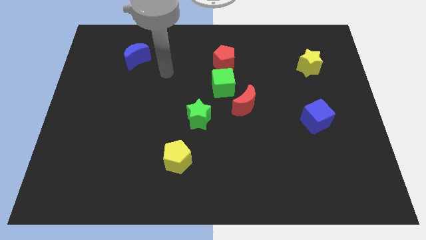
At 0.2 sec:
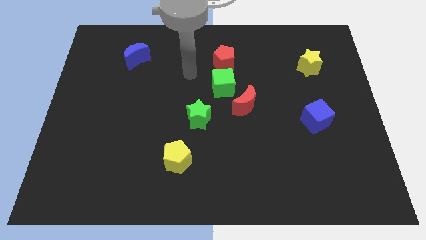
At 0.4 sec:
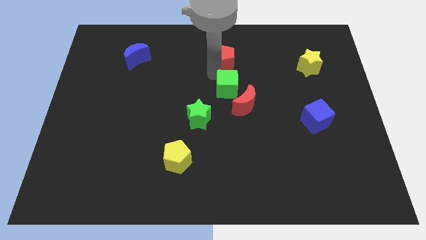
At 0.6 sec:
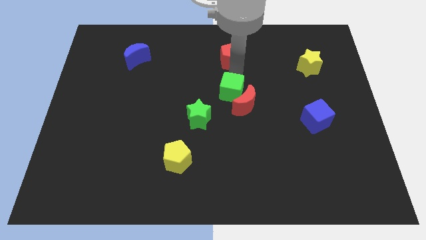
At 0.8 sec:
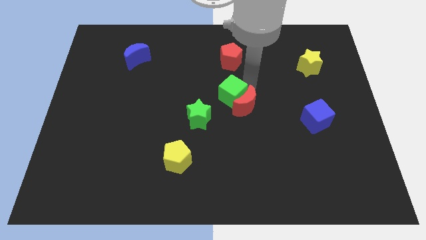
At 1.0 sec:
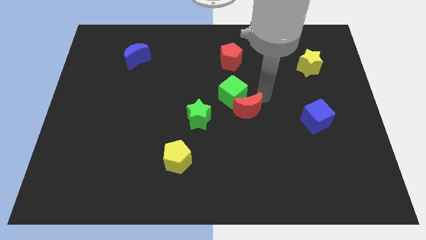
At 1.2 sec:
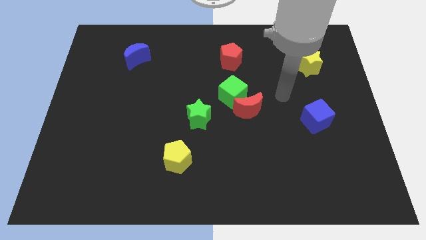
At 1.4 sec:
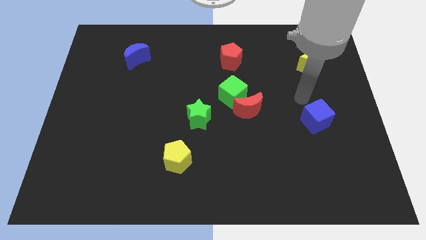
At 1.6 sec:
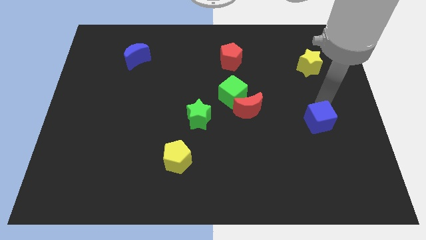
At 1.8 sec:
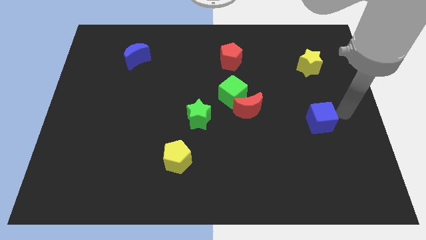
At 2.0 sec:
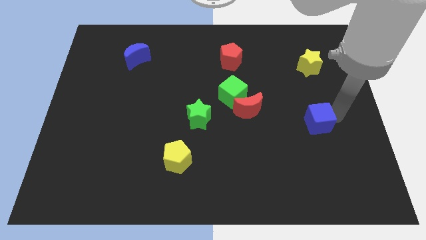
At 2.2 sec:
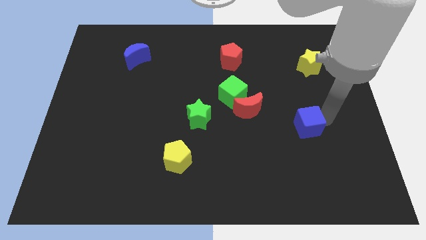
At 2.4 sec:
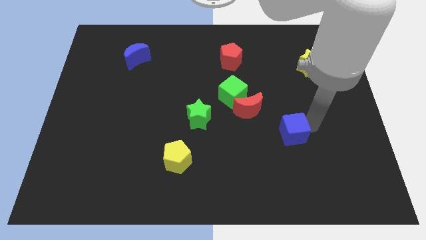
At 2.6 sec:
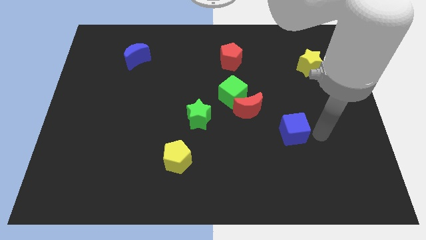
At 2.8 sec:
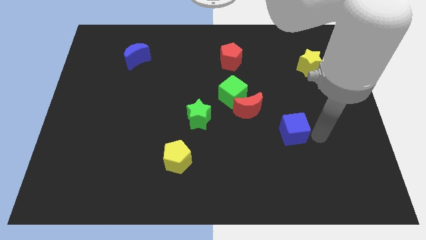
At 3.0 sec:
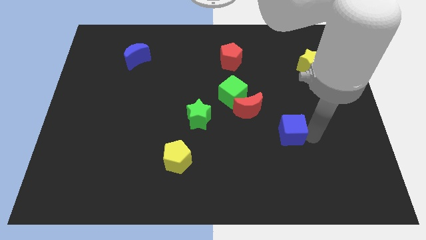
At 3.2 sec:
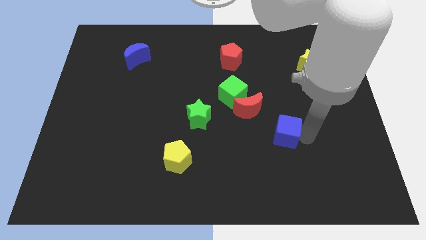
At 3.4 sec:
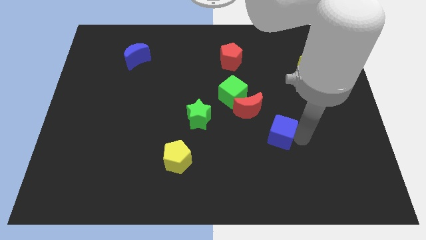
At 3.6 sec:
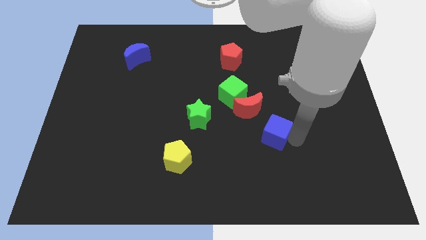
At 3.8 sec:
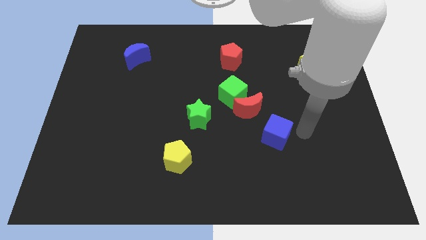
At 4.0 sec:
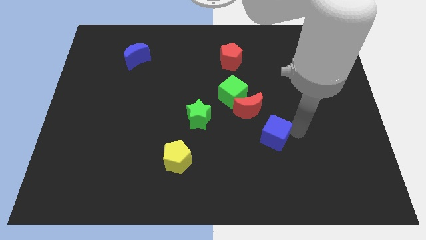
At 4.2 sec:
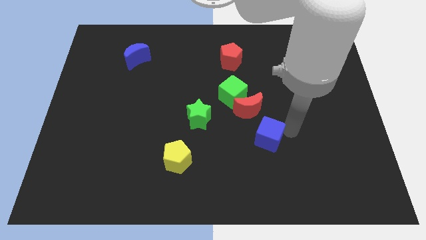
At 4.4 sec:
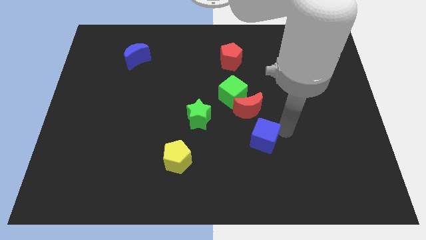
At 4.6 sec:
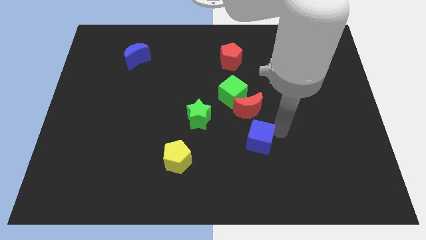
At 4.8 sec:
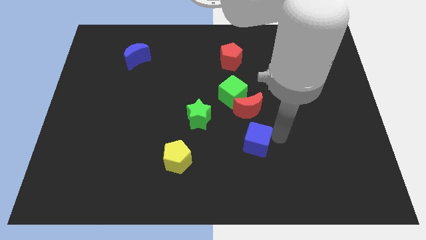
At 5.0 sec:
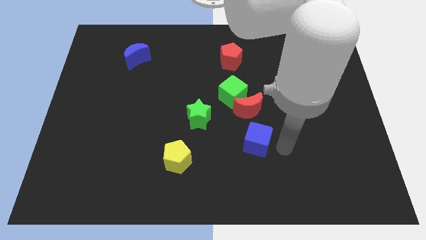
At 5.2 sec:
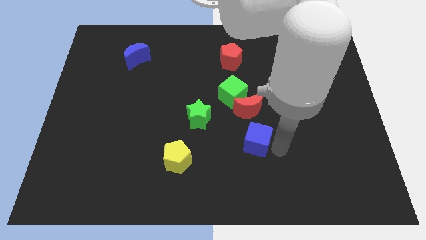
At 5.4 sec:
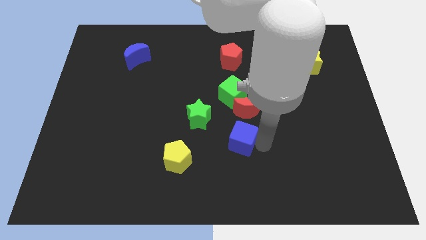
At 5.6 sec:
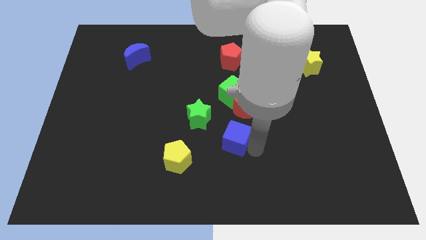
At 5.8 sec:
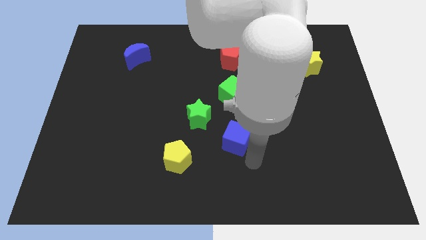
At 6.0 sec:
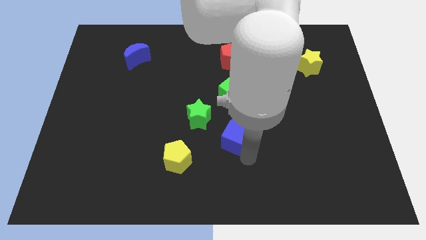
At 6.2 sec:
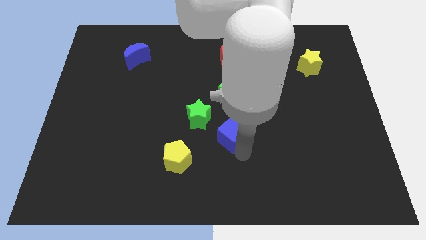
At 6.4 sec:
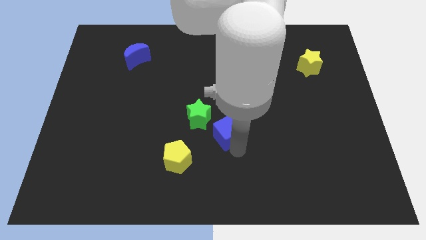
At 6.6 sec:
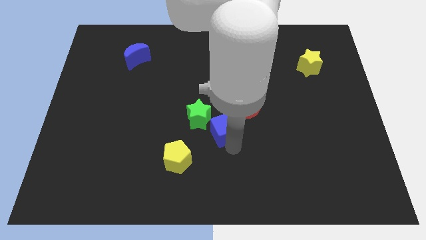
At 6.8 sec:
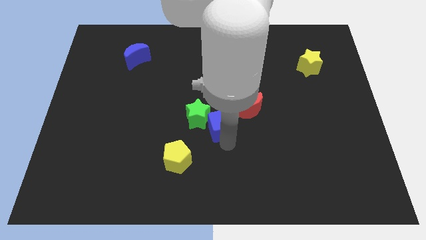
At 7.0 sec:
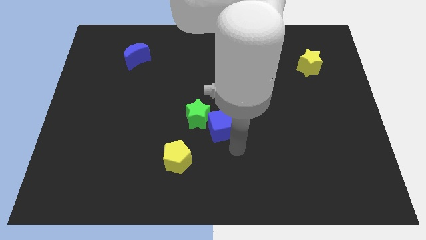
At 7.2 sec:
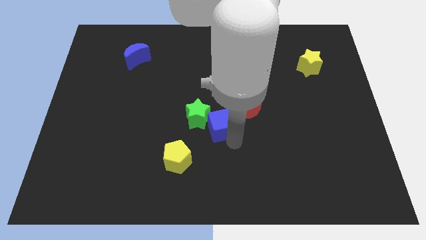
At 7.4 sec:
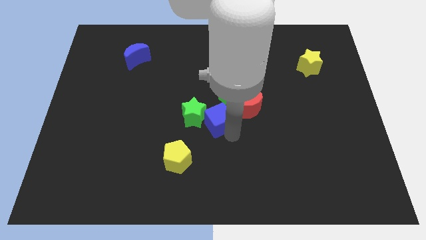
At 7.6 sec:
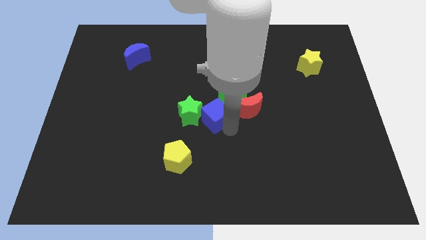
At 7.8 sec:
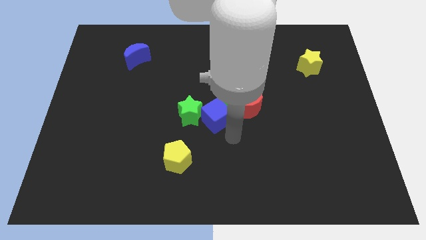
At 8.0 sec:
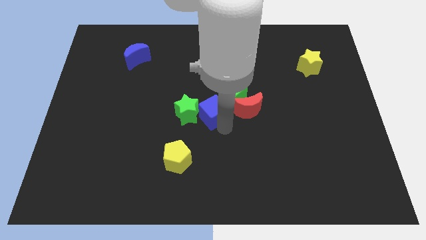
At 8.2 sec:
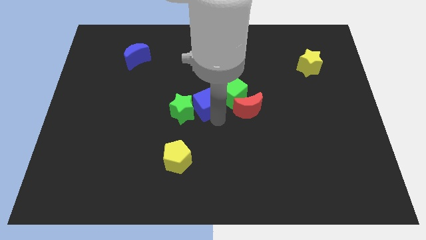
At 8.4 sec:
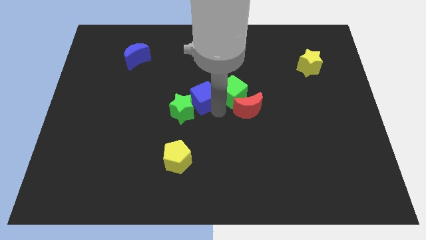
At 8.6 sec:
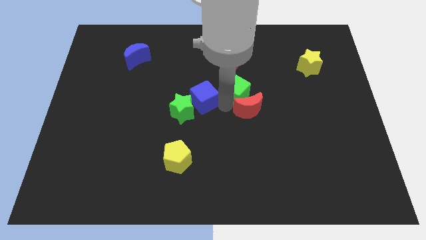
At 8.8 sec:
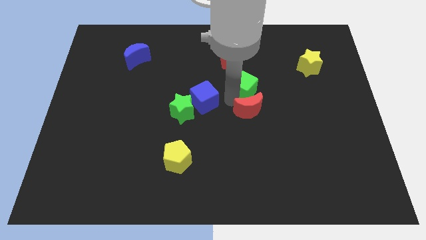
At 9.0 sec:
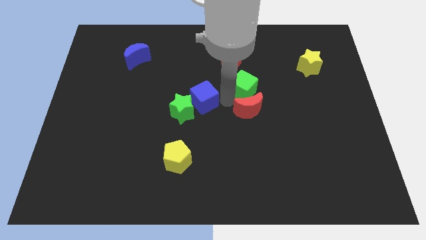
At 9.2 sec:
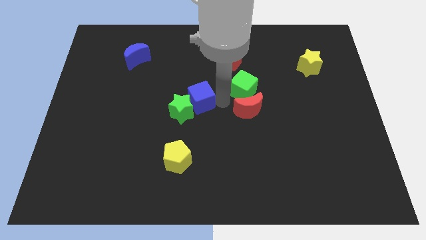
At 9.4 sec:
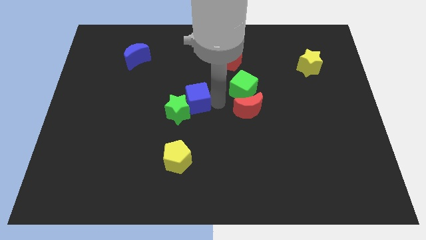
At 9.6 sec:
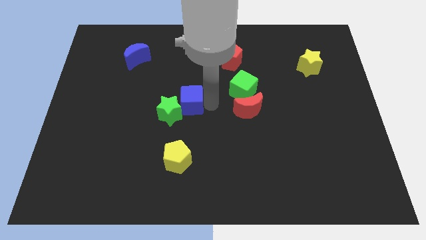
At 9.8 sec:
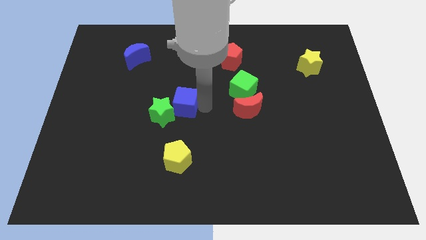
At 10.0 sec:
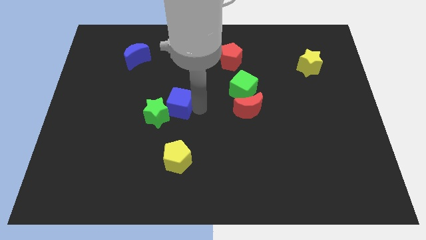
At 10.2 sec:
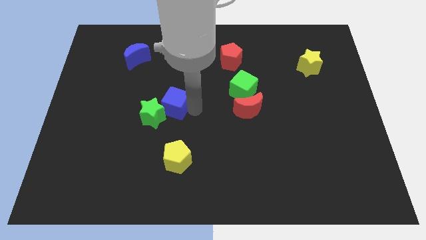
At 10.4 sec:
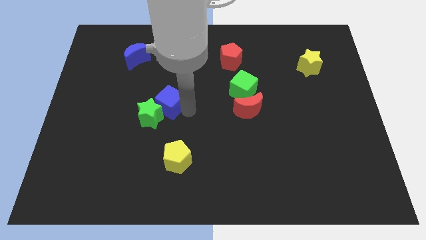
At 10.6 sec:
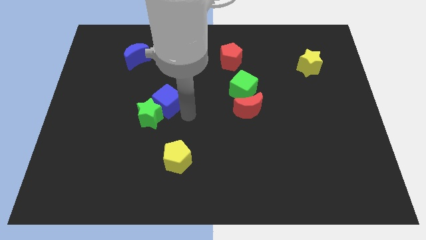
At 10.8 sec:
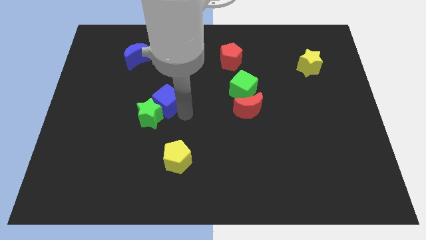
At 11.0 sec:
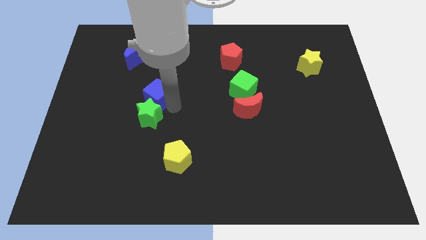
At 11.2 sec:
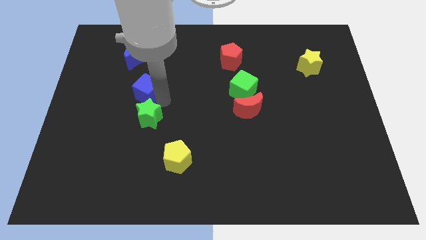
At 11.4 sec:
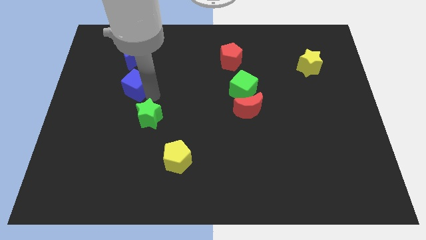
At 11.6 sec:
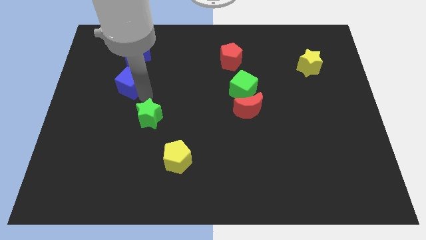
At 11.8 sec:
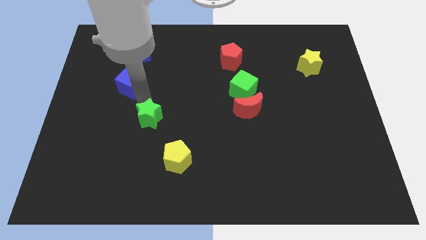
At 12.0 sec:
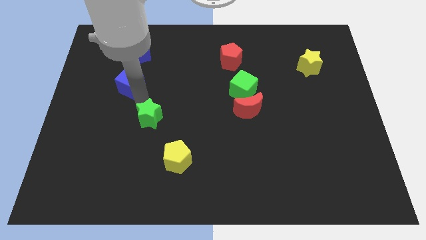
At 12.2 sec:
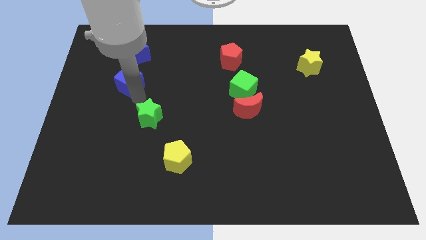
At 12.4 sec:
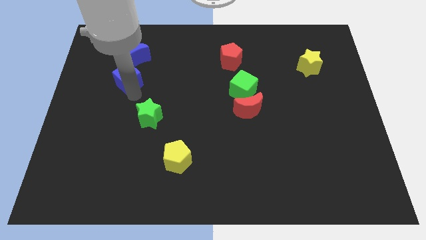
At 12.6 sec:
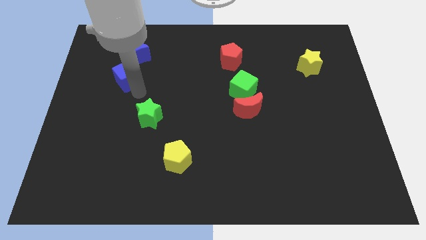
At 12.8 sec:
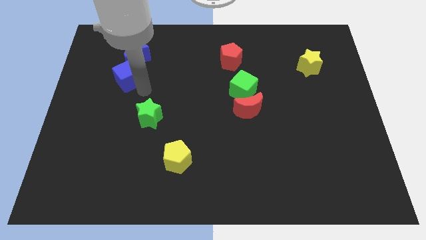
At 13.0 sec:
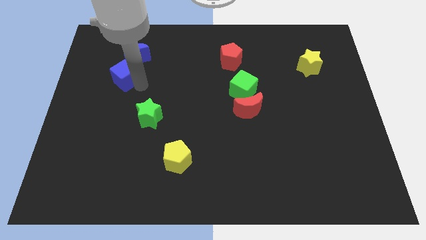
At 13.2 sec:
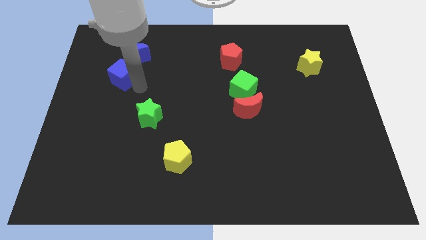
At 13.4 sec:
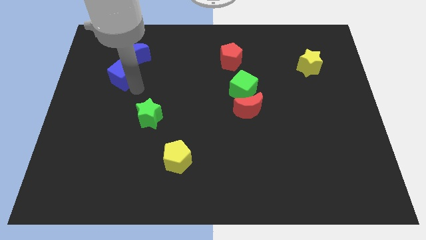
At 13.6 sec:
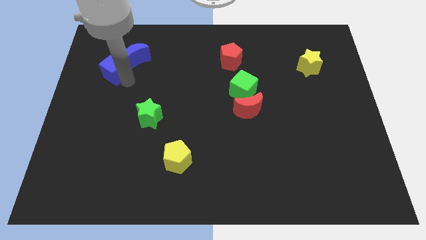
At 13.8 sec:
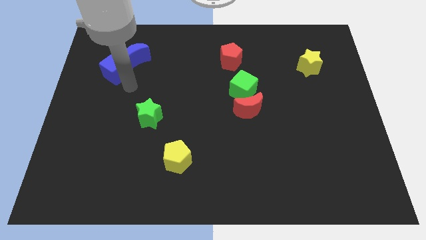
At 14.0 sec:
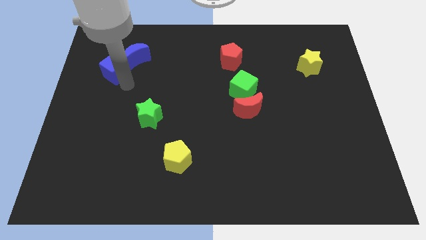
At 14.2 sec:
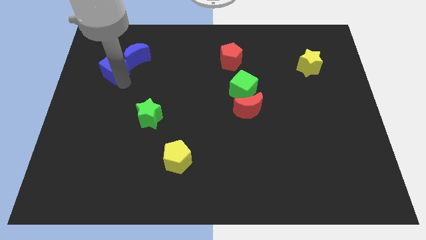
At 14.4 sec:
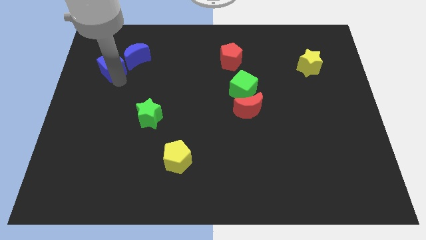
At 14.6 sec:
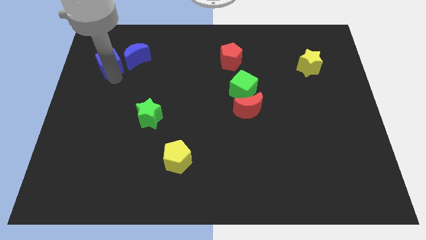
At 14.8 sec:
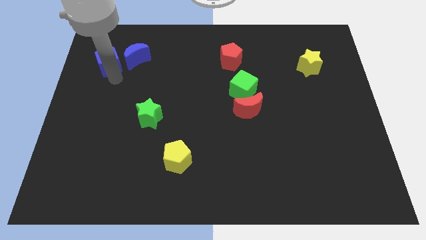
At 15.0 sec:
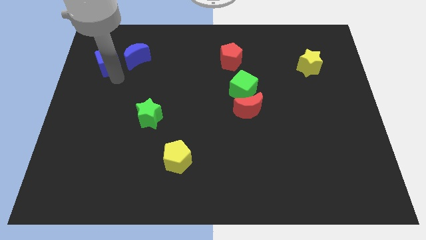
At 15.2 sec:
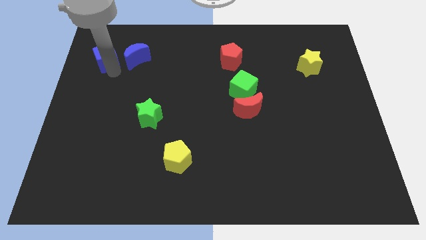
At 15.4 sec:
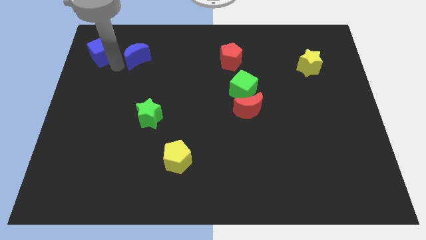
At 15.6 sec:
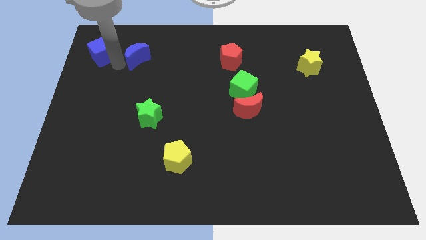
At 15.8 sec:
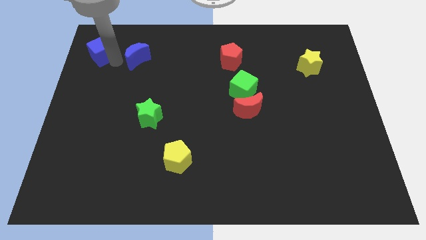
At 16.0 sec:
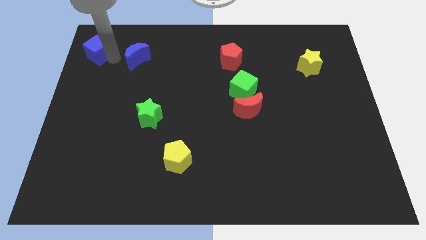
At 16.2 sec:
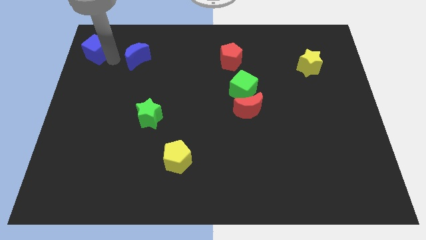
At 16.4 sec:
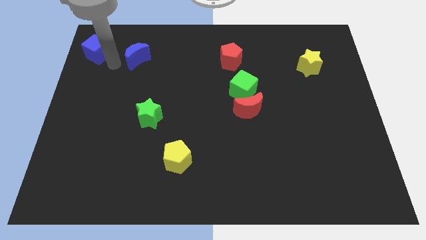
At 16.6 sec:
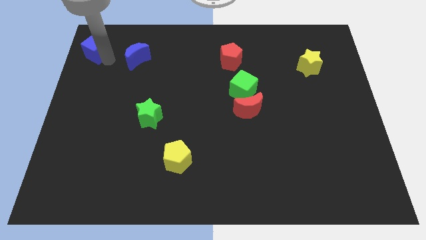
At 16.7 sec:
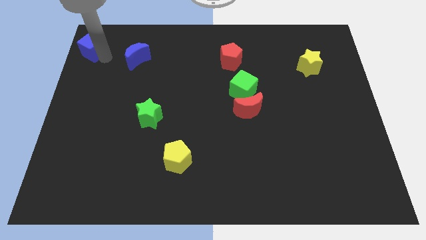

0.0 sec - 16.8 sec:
slide the blue cube to the upper left corner
